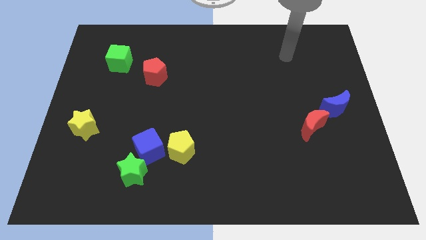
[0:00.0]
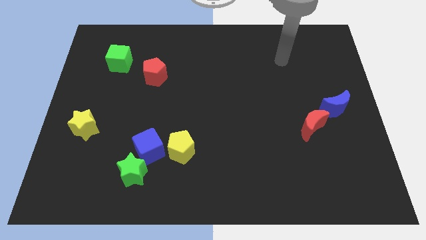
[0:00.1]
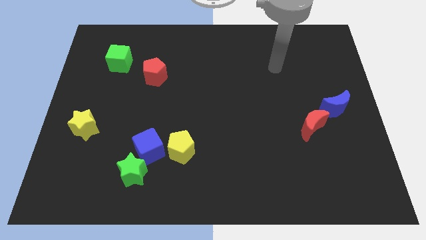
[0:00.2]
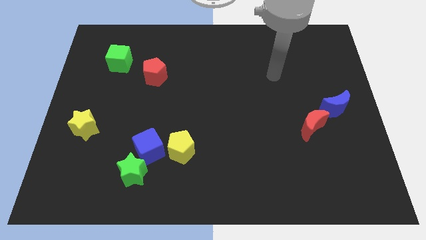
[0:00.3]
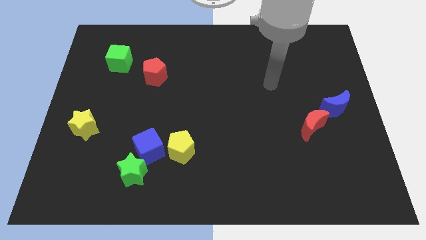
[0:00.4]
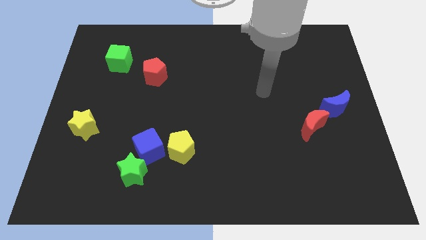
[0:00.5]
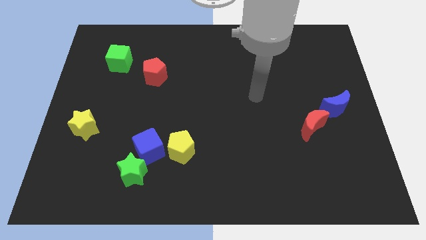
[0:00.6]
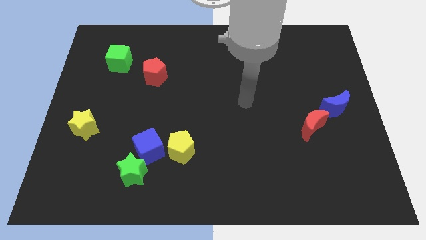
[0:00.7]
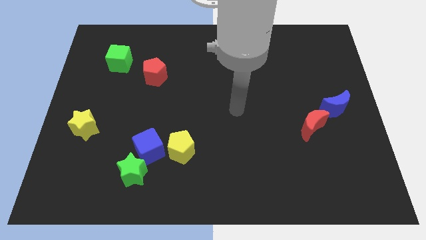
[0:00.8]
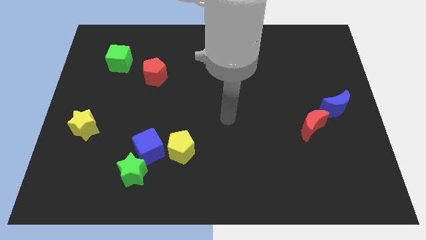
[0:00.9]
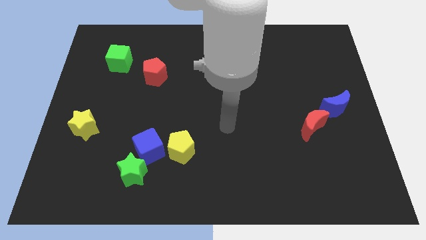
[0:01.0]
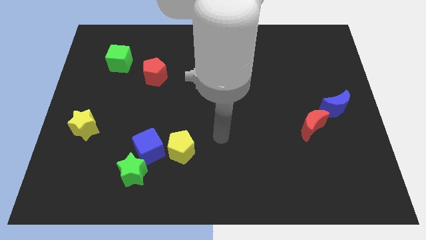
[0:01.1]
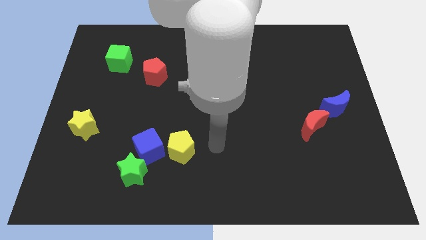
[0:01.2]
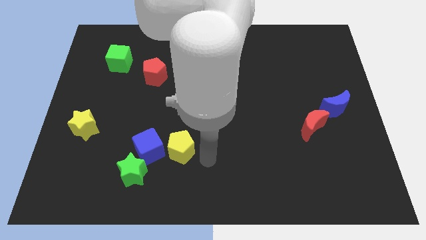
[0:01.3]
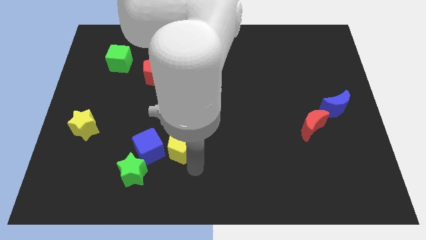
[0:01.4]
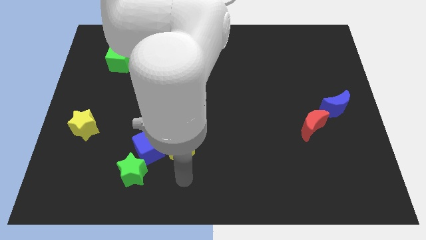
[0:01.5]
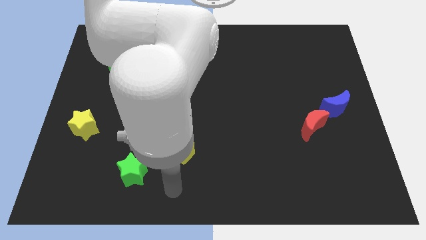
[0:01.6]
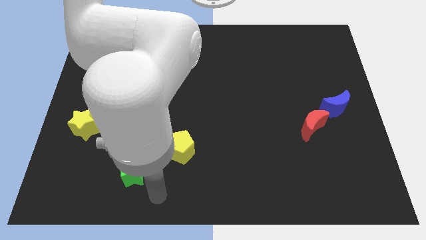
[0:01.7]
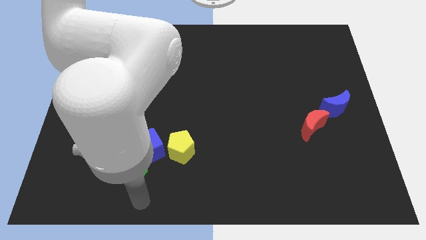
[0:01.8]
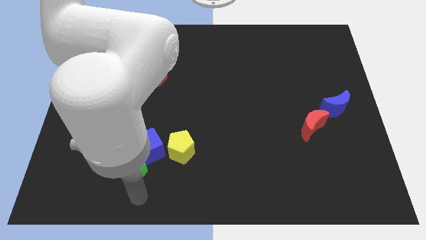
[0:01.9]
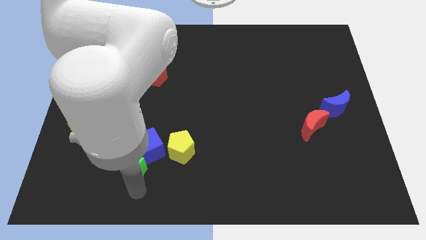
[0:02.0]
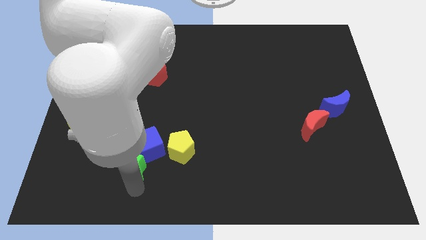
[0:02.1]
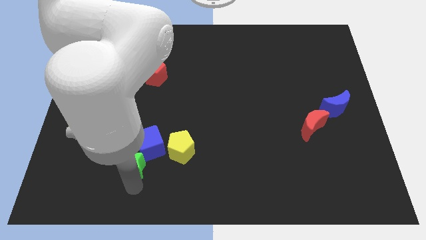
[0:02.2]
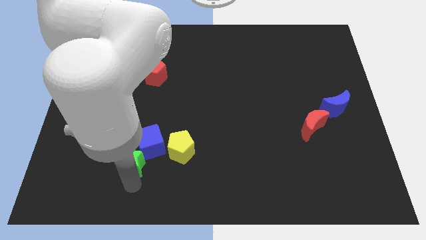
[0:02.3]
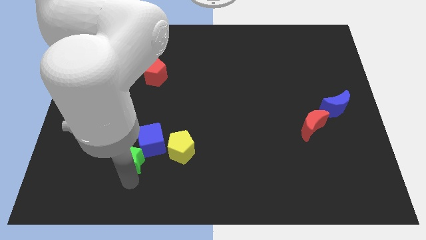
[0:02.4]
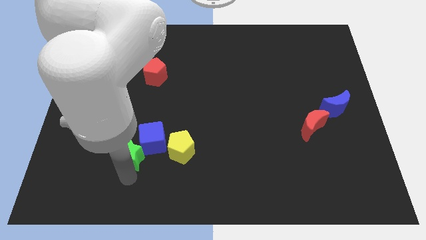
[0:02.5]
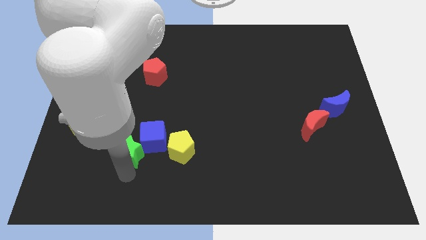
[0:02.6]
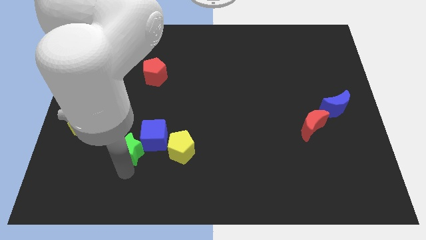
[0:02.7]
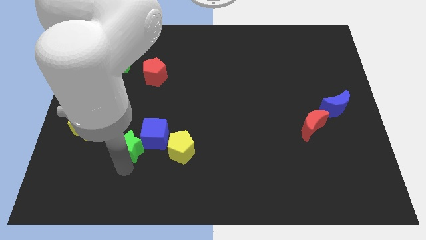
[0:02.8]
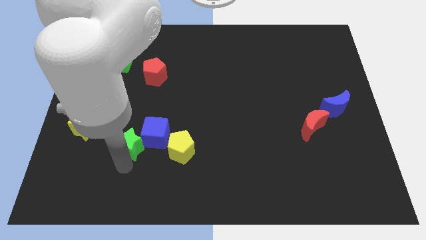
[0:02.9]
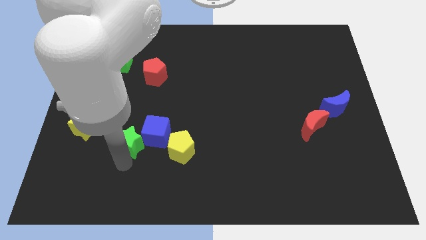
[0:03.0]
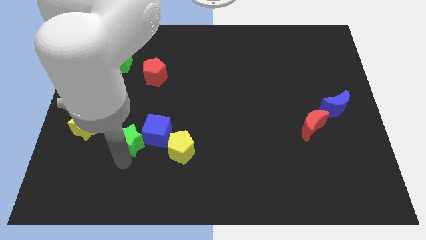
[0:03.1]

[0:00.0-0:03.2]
slightly slide the green star upwards

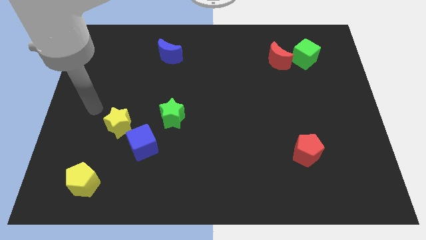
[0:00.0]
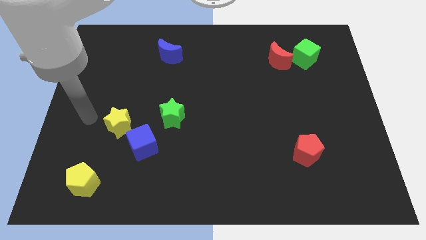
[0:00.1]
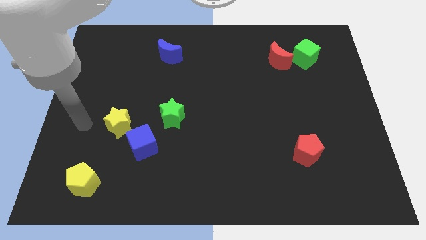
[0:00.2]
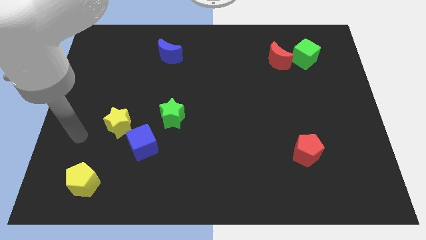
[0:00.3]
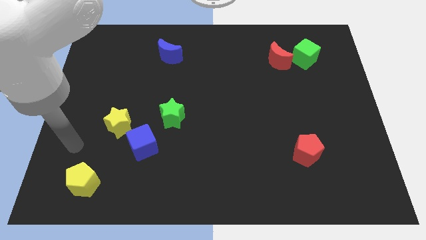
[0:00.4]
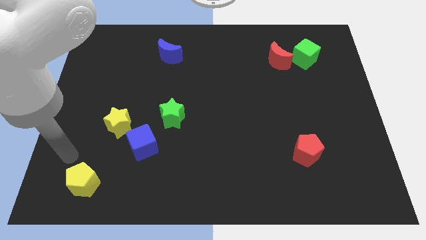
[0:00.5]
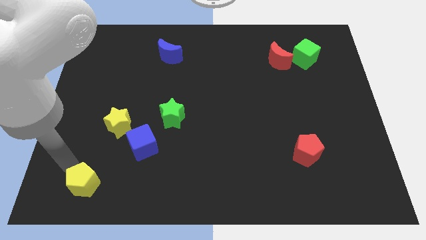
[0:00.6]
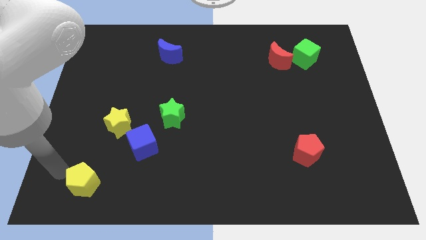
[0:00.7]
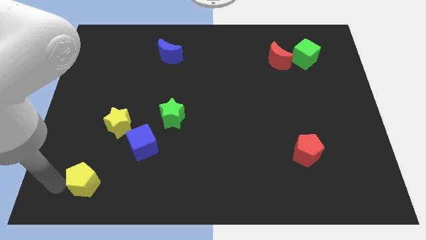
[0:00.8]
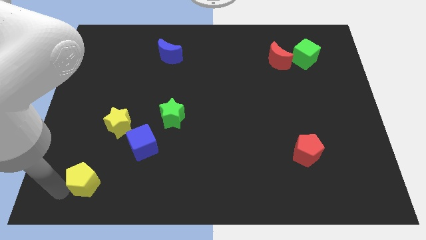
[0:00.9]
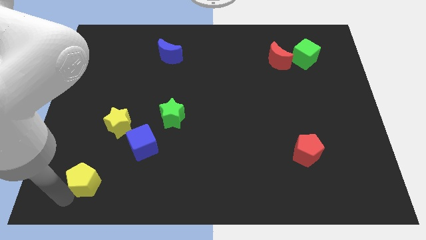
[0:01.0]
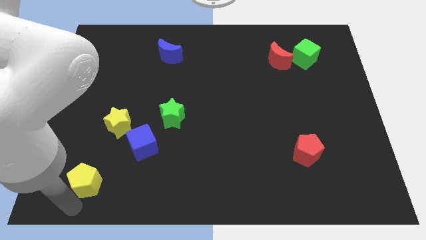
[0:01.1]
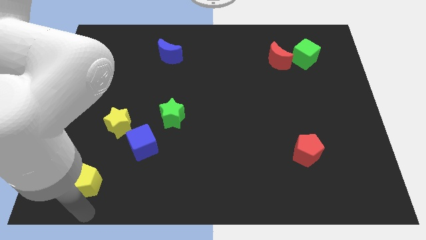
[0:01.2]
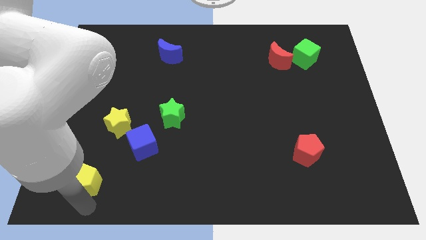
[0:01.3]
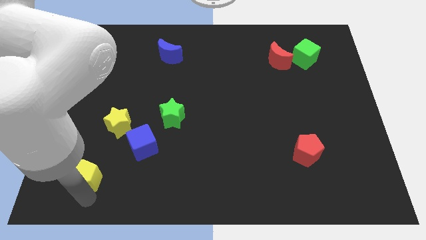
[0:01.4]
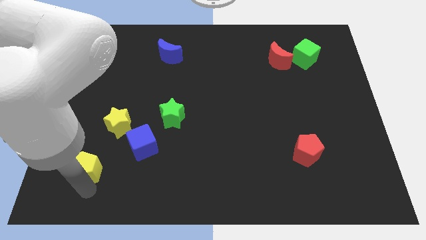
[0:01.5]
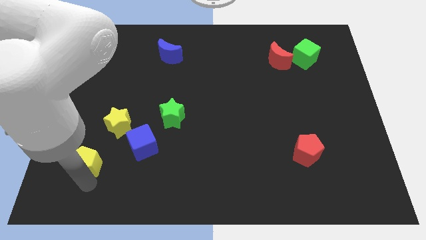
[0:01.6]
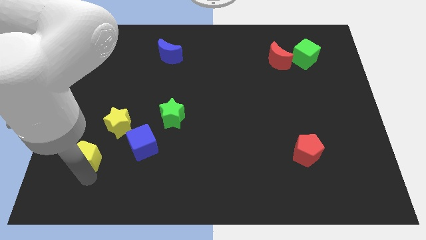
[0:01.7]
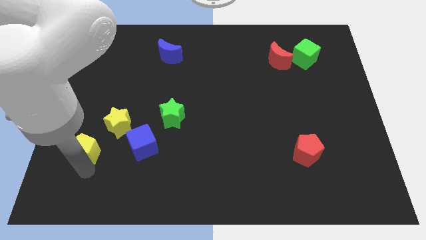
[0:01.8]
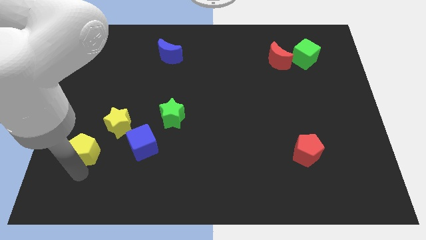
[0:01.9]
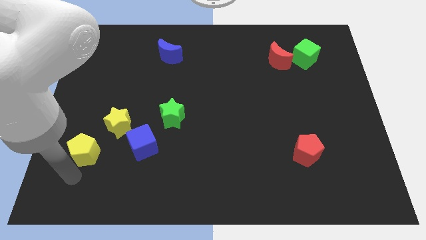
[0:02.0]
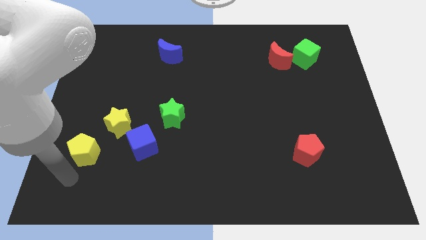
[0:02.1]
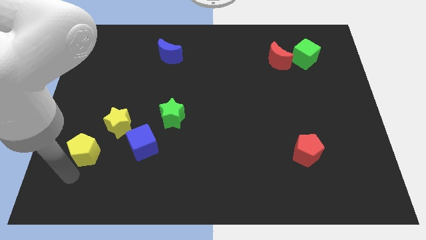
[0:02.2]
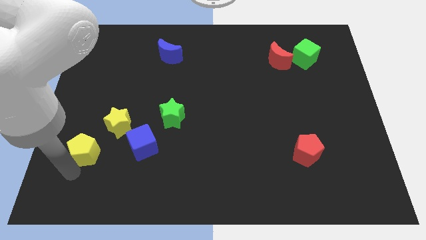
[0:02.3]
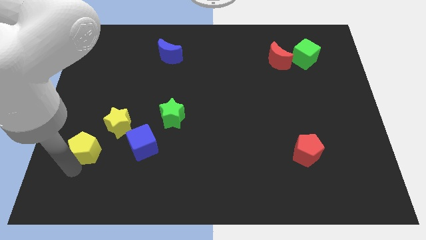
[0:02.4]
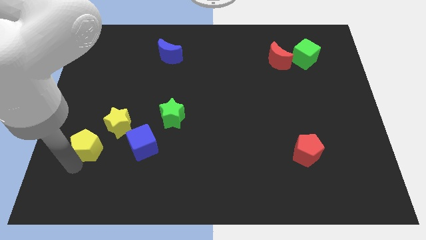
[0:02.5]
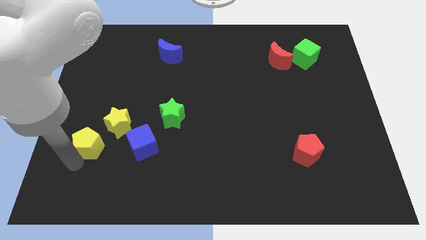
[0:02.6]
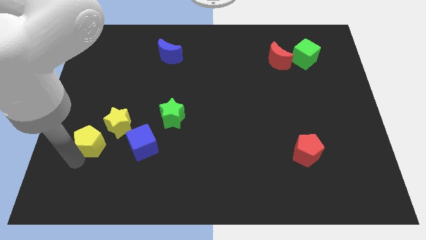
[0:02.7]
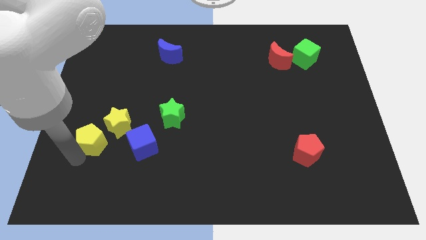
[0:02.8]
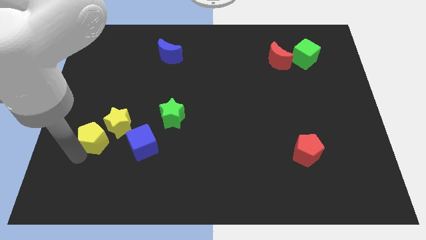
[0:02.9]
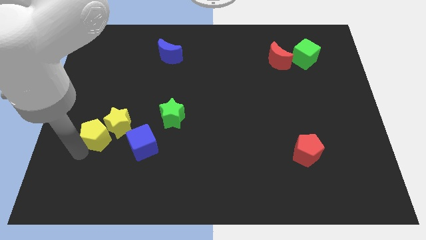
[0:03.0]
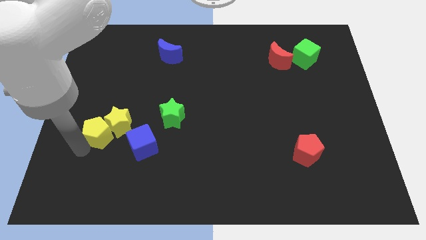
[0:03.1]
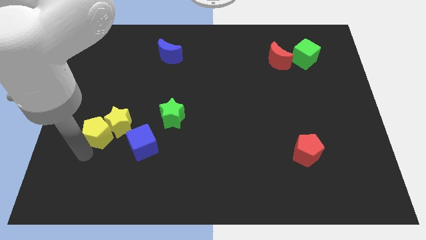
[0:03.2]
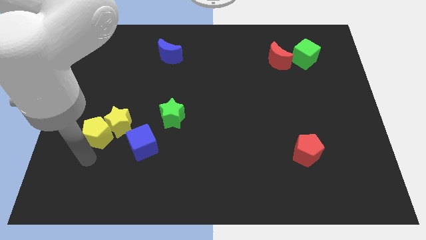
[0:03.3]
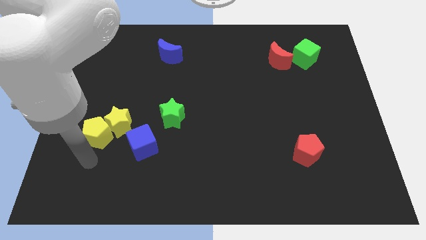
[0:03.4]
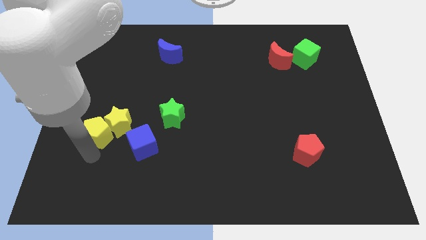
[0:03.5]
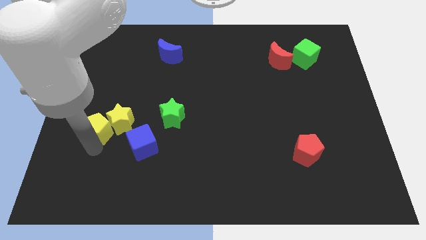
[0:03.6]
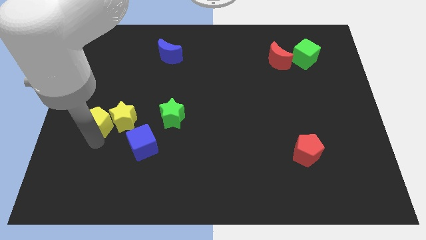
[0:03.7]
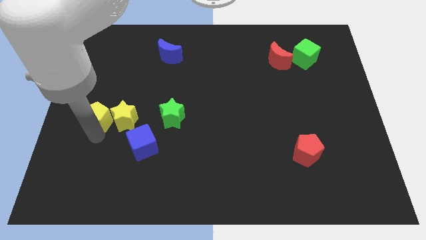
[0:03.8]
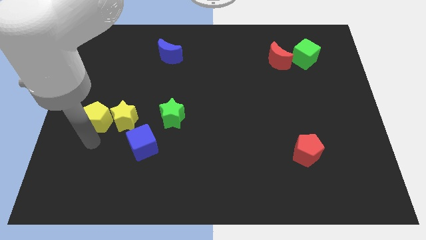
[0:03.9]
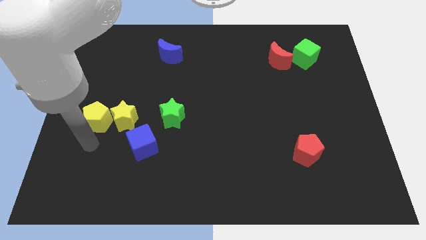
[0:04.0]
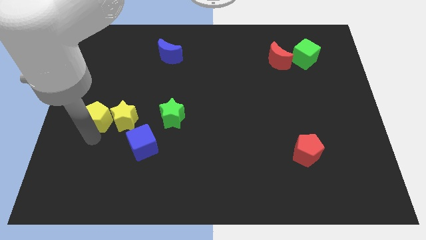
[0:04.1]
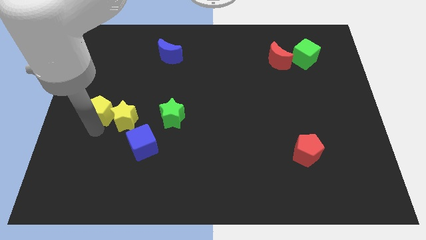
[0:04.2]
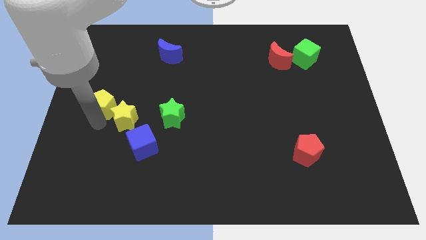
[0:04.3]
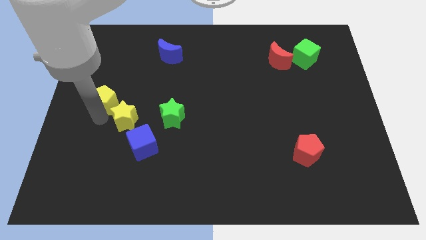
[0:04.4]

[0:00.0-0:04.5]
slide the yellow pentagon upwards

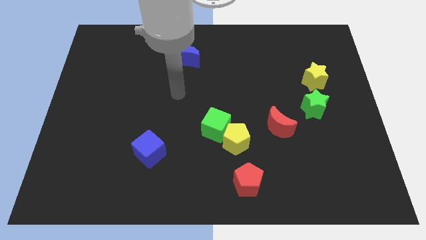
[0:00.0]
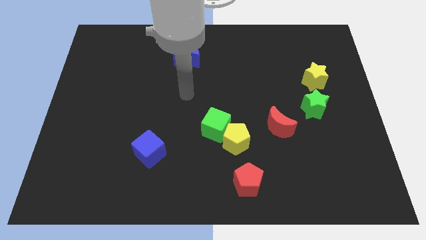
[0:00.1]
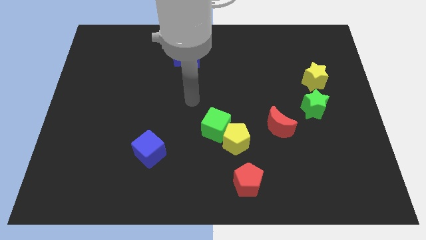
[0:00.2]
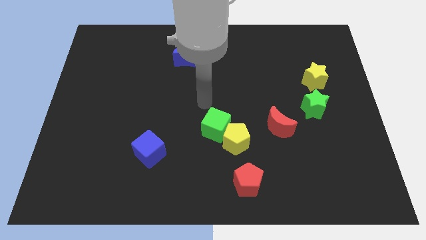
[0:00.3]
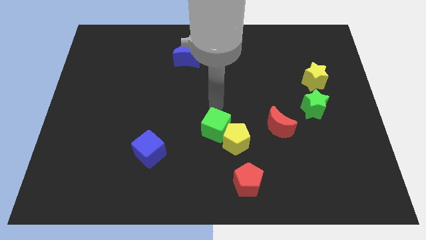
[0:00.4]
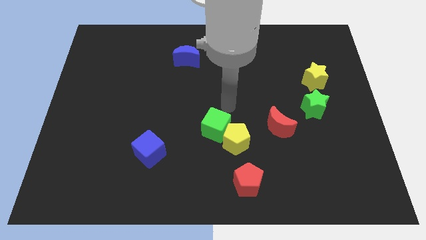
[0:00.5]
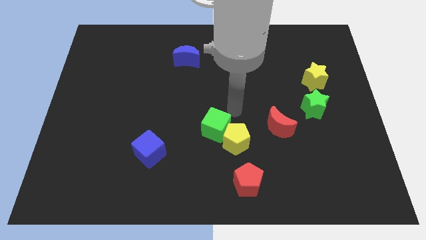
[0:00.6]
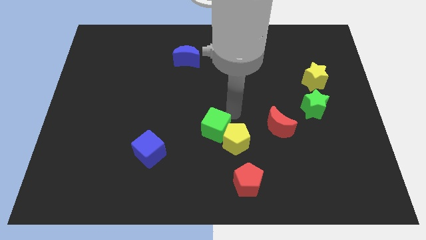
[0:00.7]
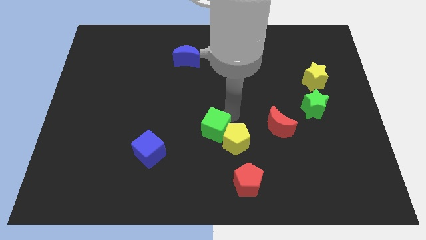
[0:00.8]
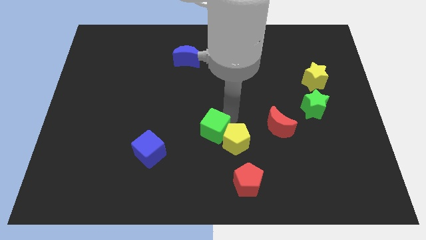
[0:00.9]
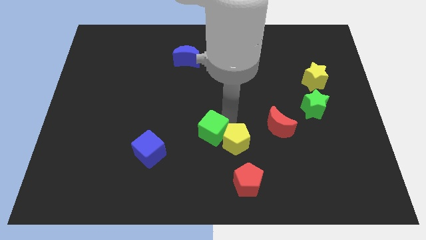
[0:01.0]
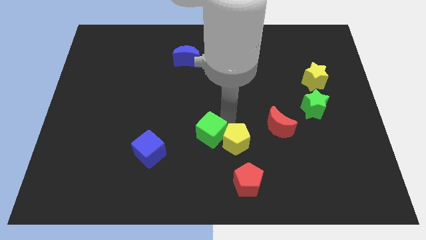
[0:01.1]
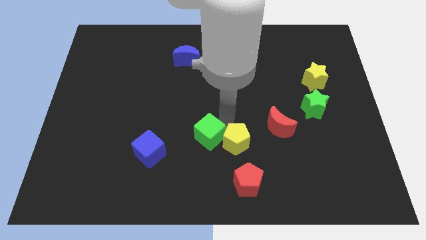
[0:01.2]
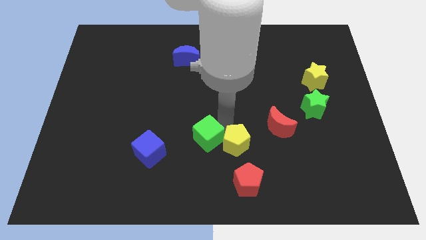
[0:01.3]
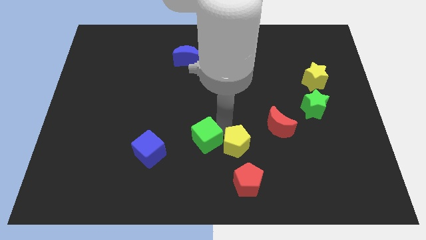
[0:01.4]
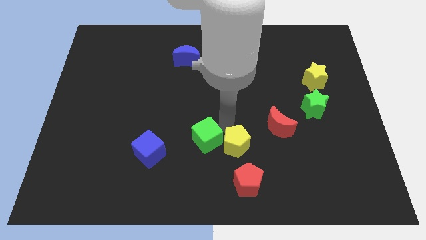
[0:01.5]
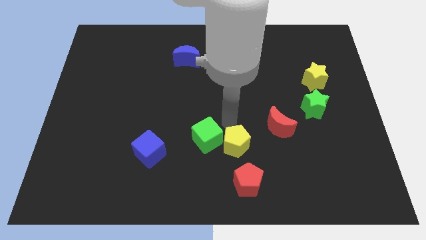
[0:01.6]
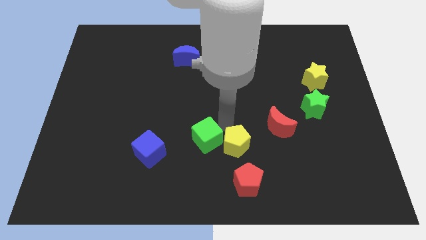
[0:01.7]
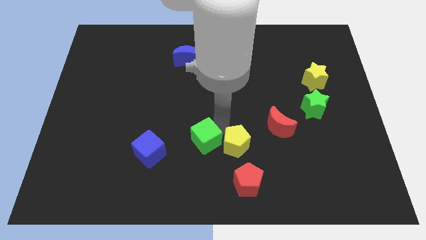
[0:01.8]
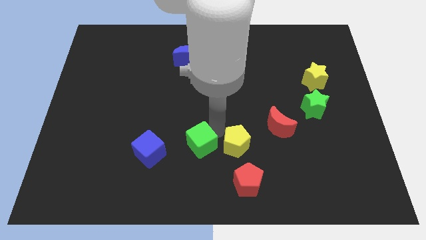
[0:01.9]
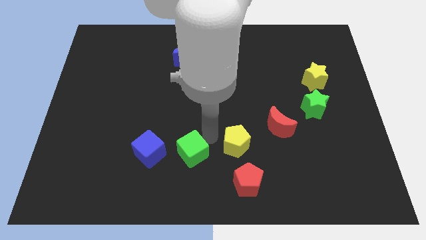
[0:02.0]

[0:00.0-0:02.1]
slightly move the green cube down and left
